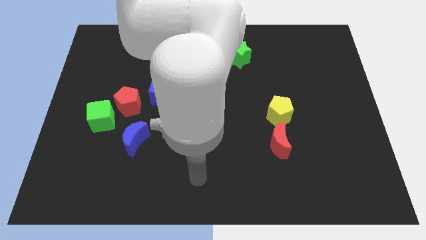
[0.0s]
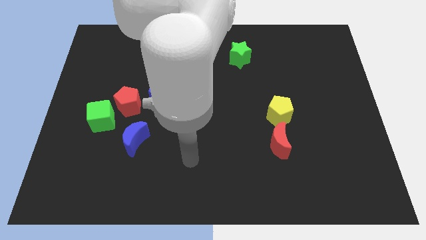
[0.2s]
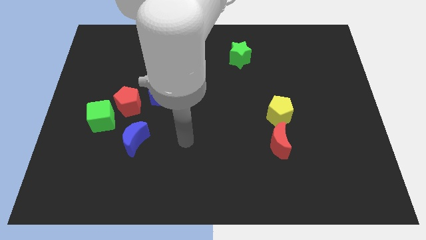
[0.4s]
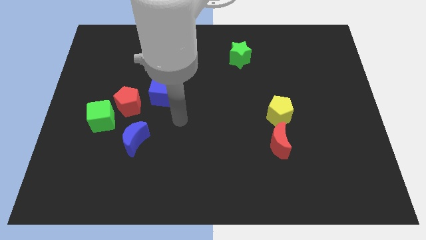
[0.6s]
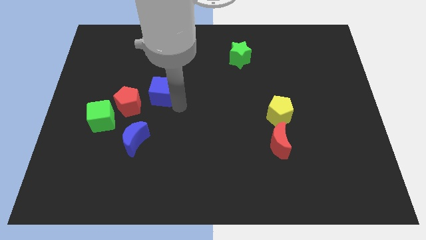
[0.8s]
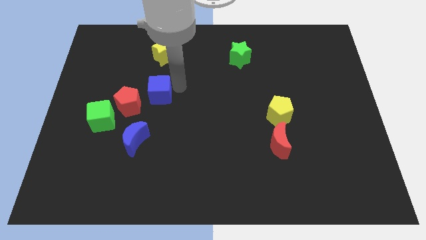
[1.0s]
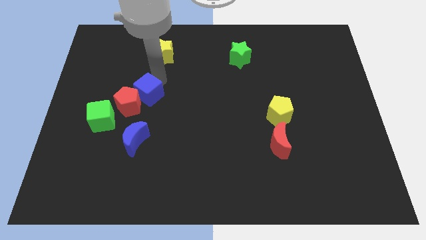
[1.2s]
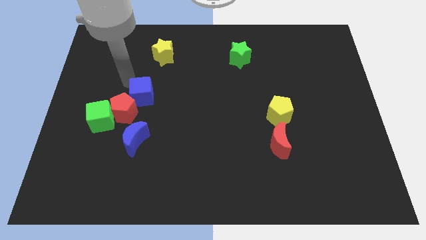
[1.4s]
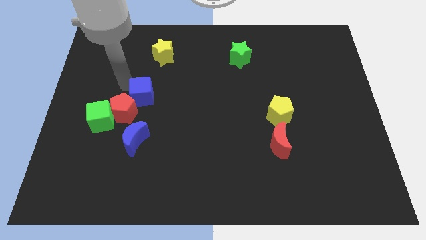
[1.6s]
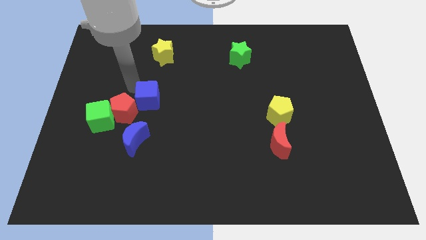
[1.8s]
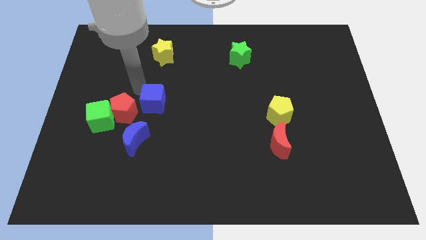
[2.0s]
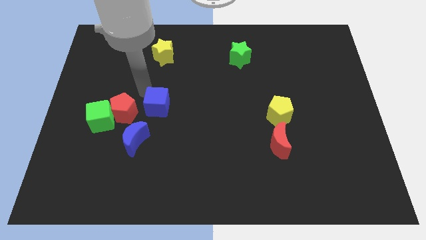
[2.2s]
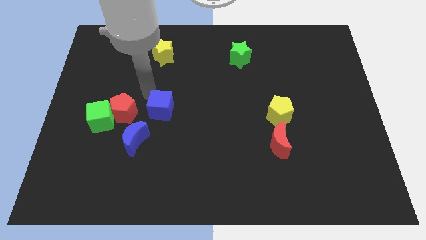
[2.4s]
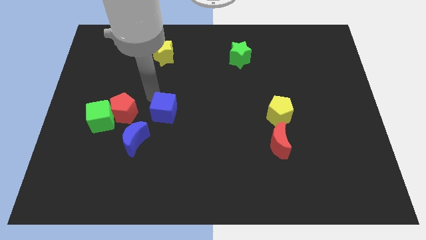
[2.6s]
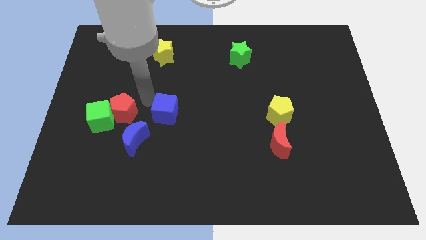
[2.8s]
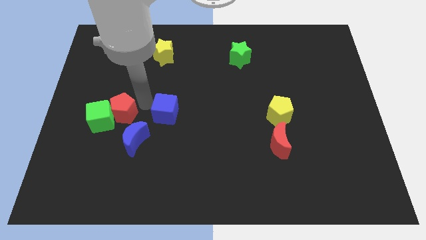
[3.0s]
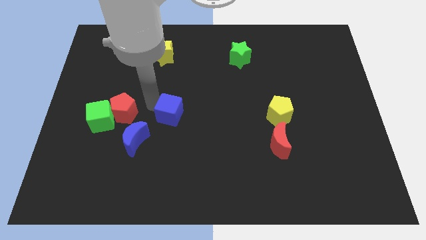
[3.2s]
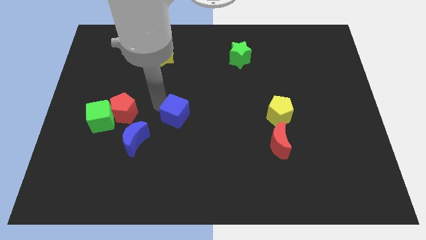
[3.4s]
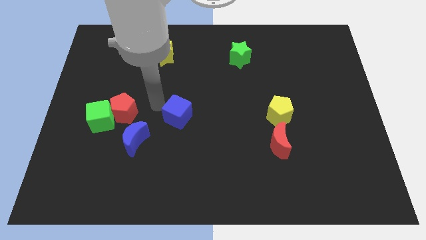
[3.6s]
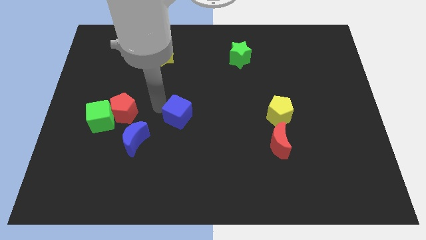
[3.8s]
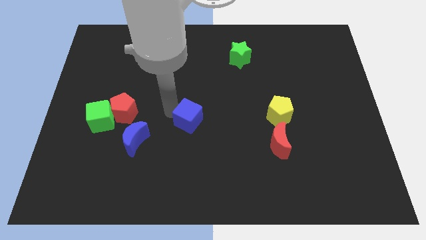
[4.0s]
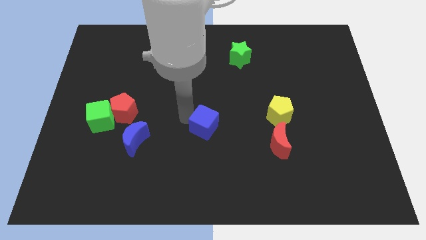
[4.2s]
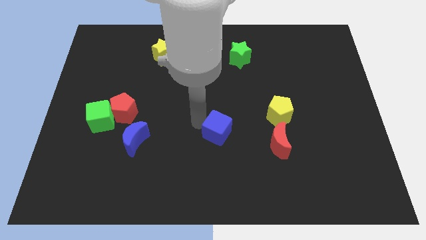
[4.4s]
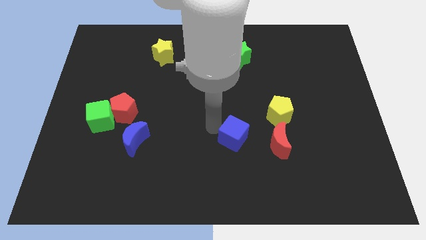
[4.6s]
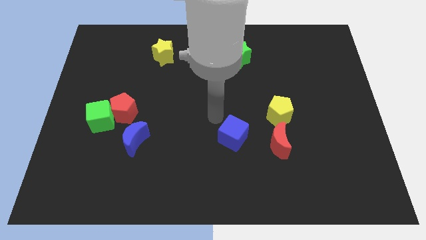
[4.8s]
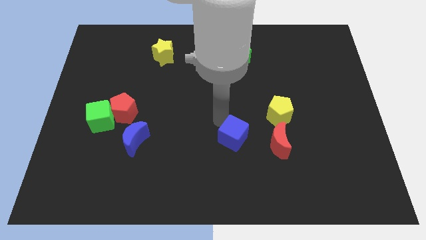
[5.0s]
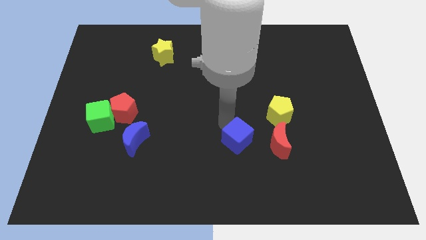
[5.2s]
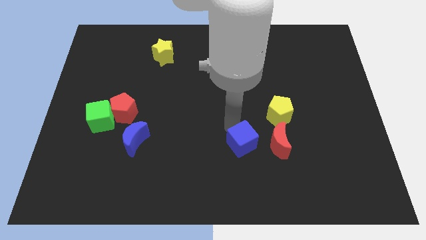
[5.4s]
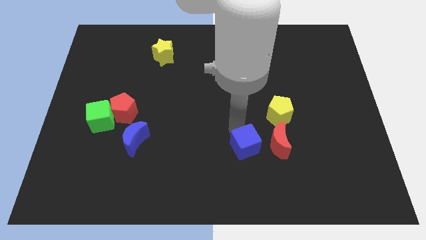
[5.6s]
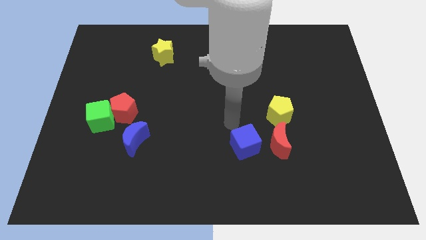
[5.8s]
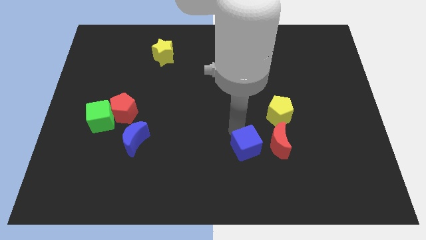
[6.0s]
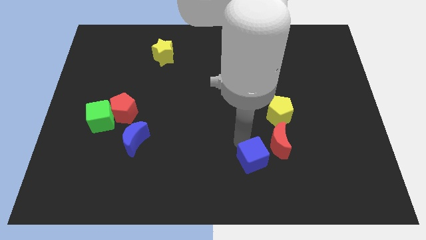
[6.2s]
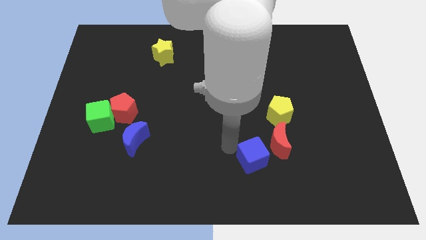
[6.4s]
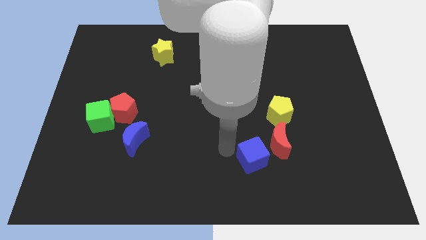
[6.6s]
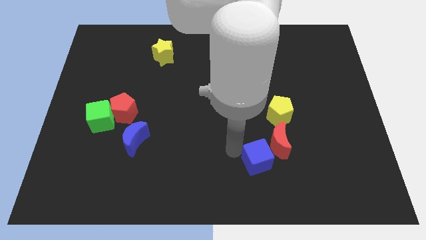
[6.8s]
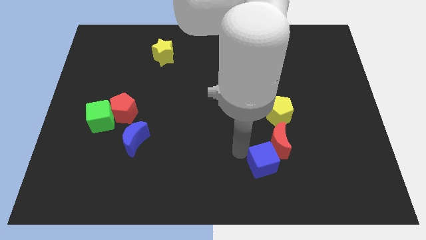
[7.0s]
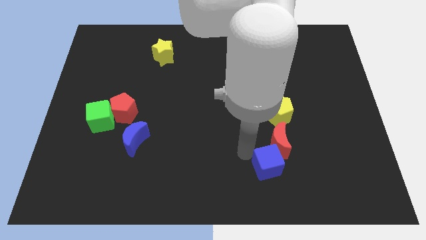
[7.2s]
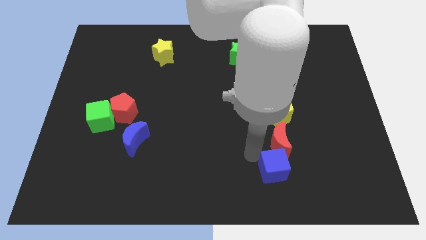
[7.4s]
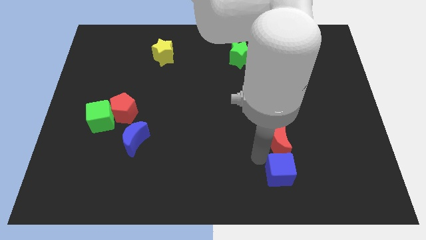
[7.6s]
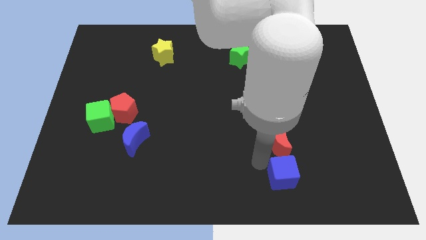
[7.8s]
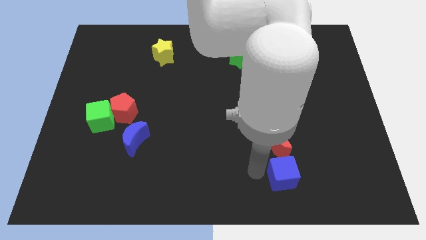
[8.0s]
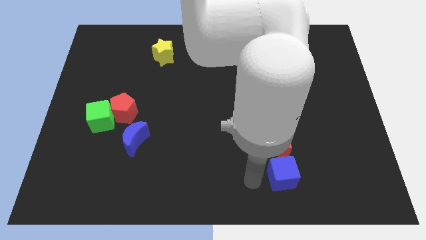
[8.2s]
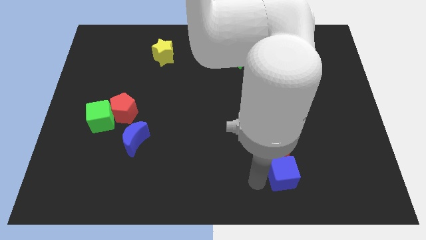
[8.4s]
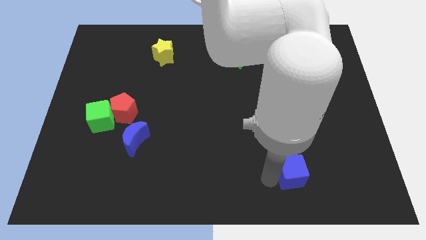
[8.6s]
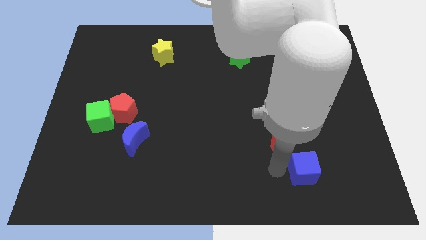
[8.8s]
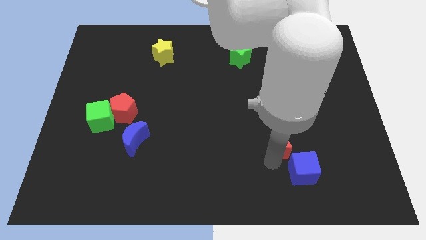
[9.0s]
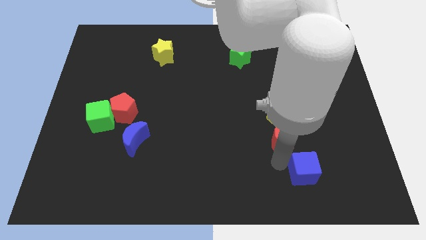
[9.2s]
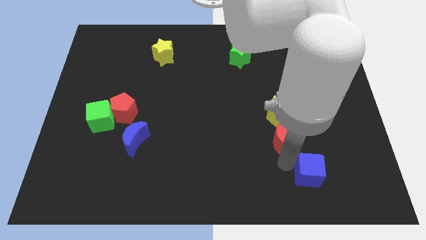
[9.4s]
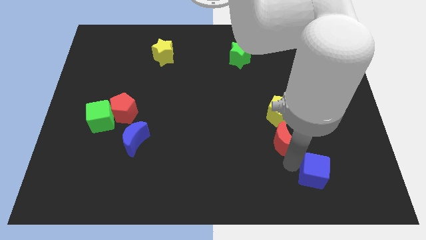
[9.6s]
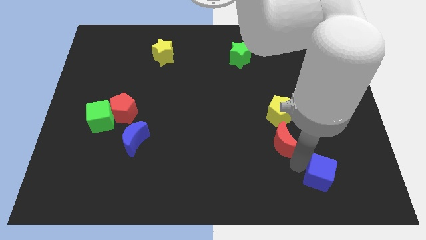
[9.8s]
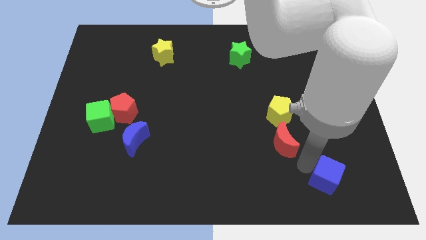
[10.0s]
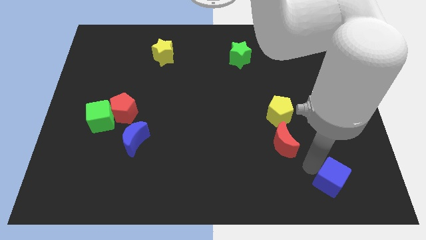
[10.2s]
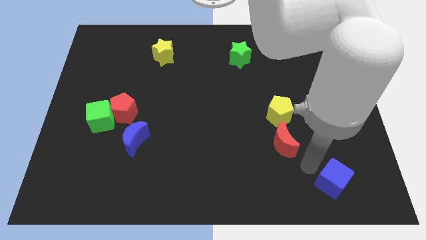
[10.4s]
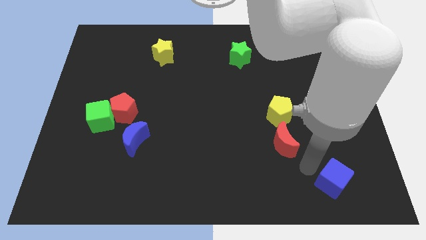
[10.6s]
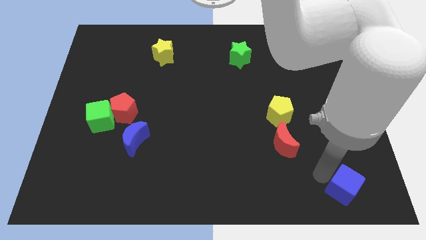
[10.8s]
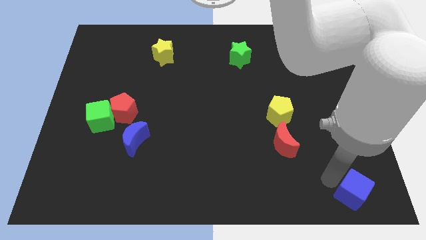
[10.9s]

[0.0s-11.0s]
slide the blue cube to the bottom right of the board

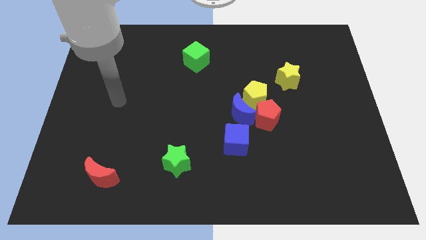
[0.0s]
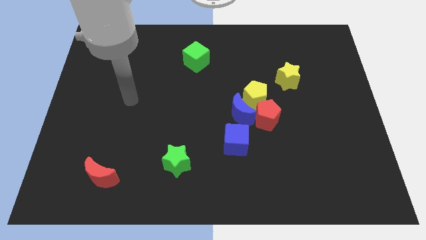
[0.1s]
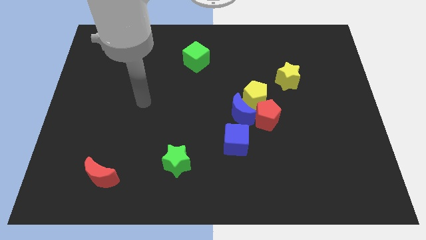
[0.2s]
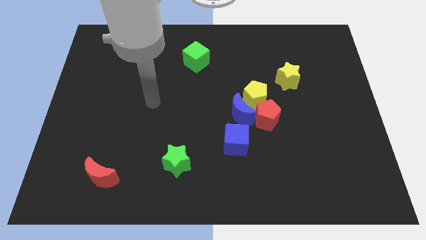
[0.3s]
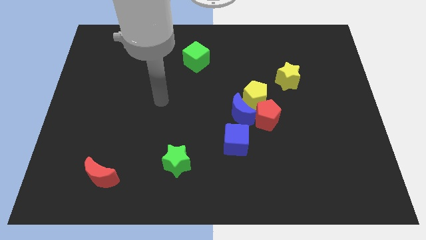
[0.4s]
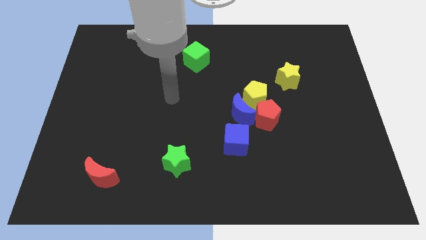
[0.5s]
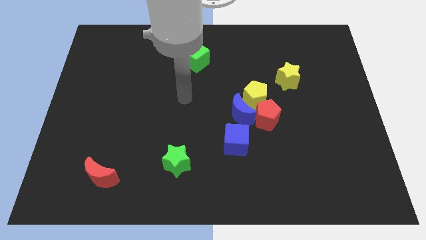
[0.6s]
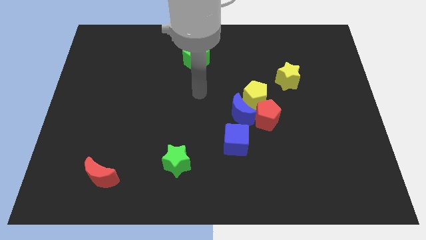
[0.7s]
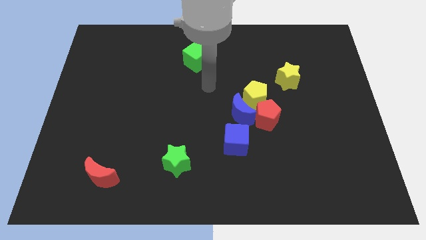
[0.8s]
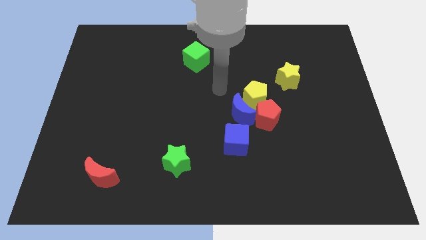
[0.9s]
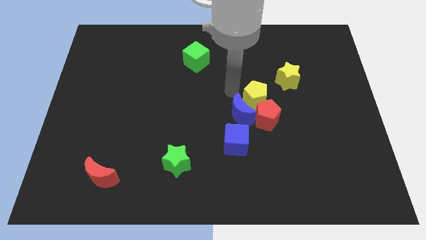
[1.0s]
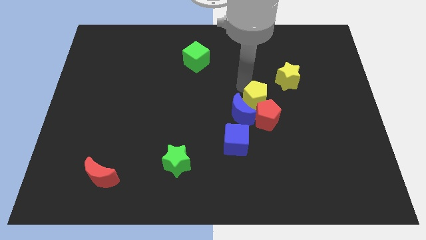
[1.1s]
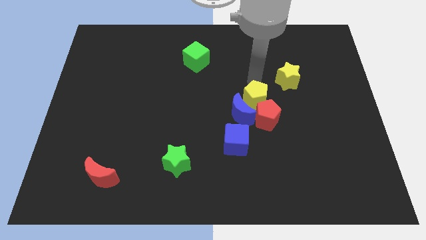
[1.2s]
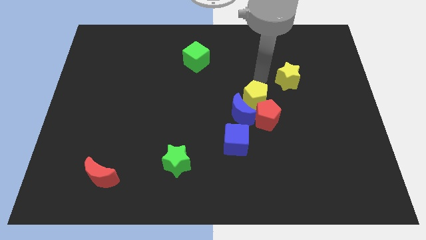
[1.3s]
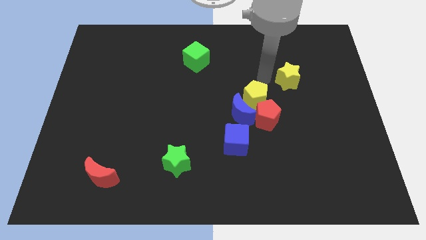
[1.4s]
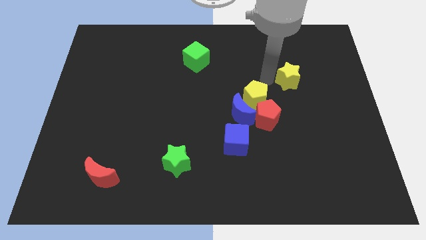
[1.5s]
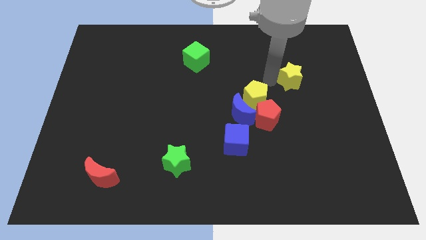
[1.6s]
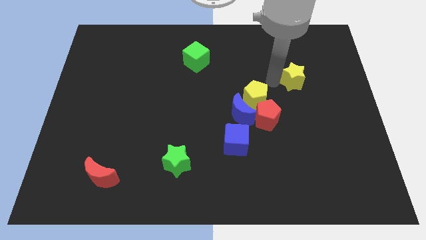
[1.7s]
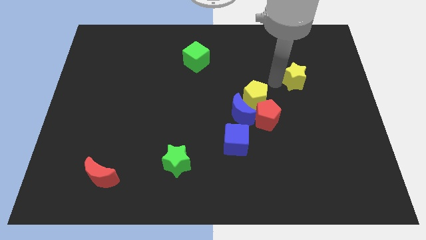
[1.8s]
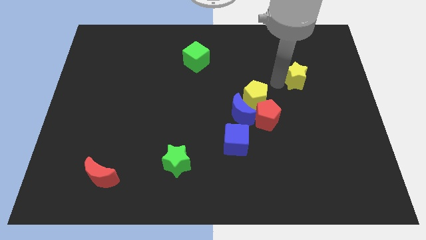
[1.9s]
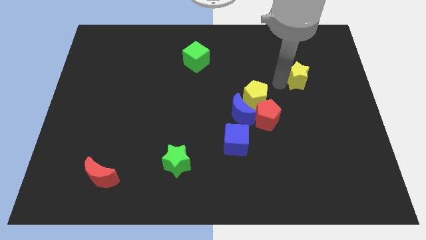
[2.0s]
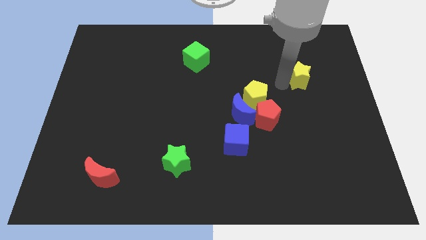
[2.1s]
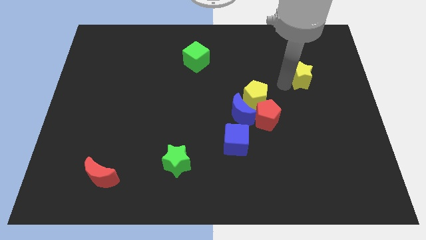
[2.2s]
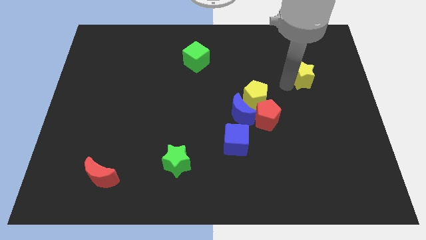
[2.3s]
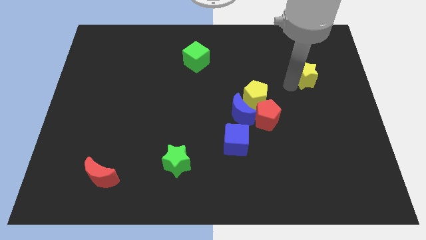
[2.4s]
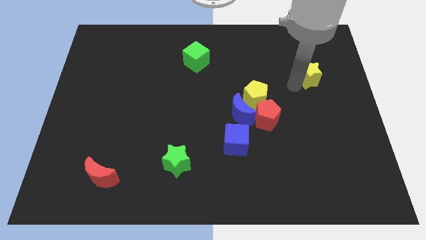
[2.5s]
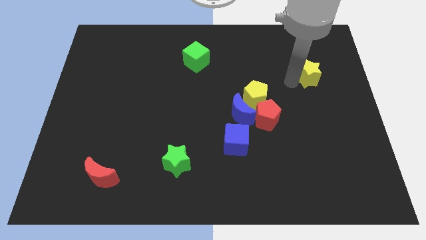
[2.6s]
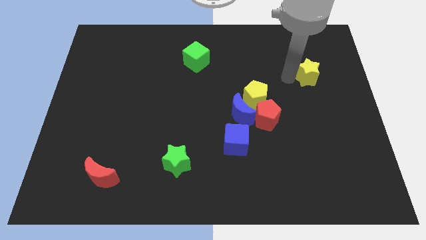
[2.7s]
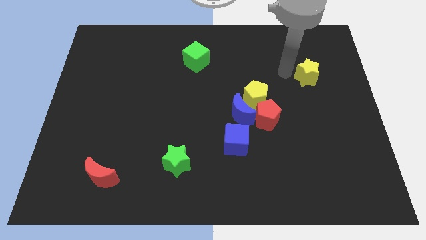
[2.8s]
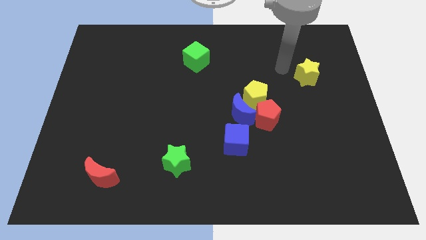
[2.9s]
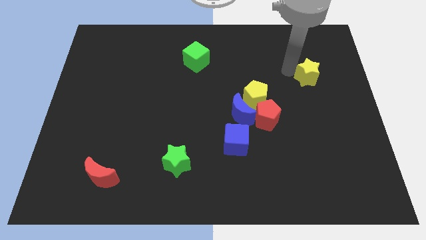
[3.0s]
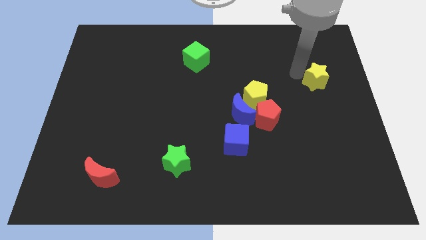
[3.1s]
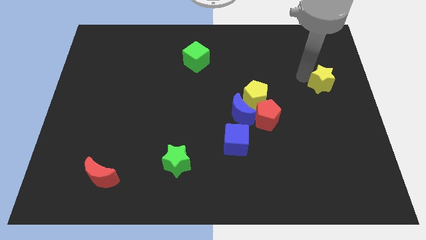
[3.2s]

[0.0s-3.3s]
push the yellow star to the right side
